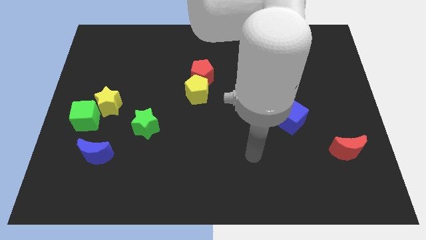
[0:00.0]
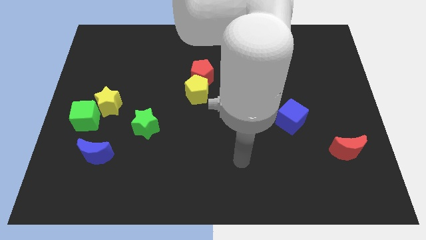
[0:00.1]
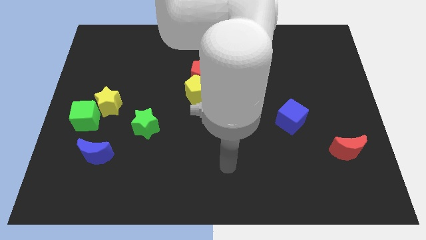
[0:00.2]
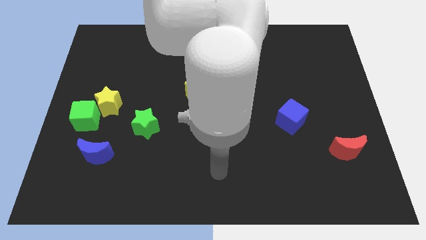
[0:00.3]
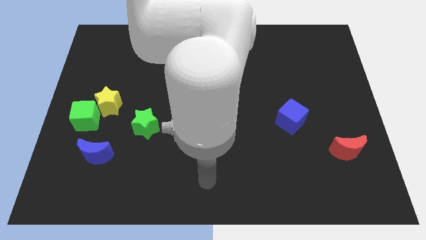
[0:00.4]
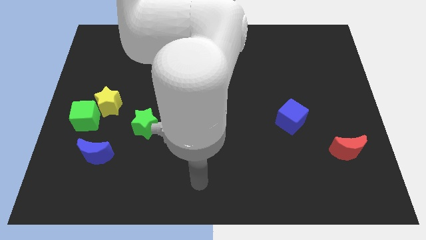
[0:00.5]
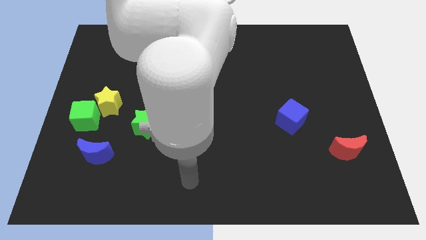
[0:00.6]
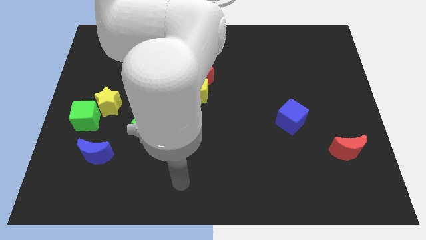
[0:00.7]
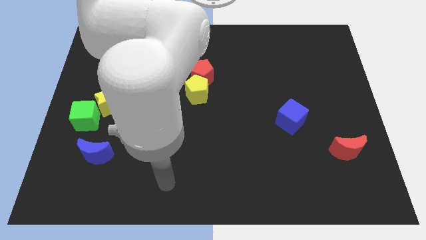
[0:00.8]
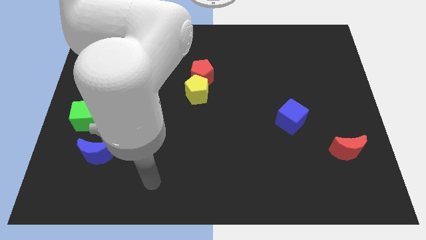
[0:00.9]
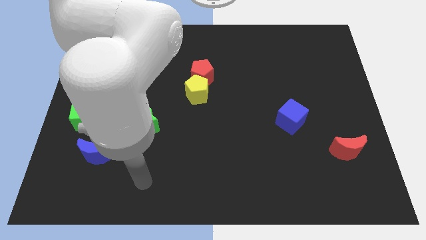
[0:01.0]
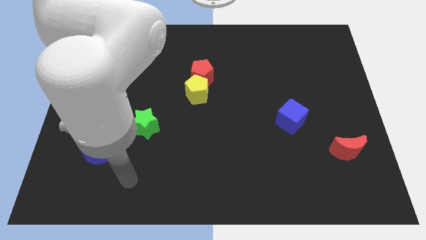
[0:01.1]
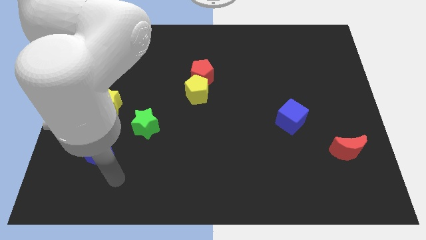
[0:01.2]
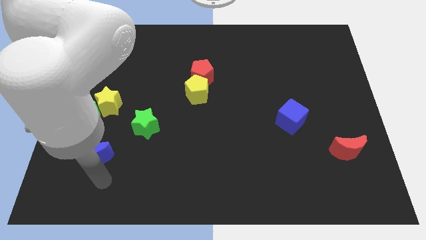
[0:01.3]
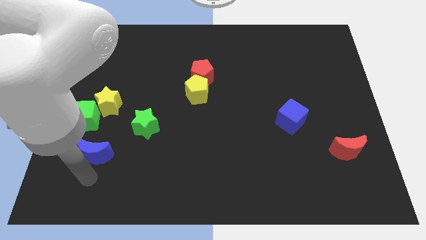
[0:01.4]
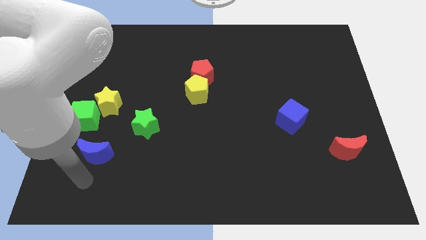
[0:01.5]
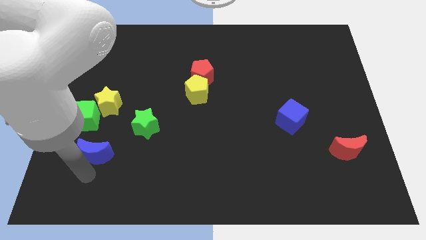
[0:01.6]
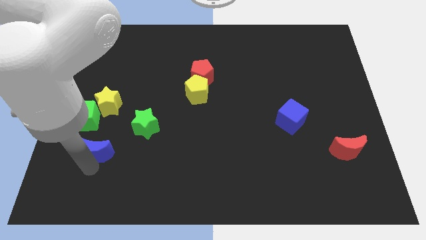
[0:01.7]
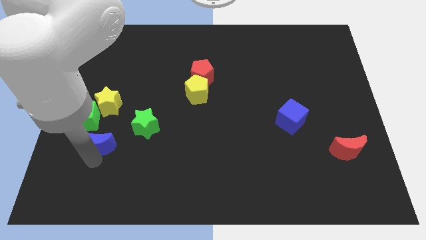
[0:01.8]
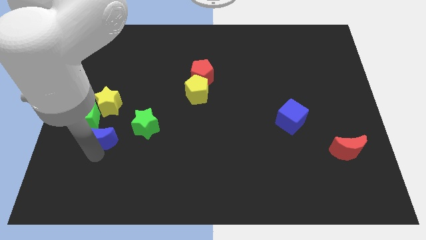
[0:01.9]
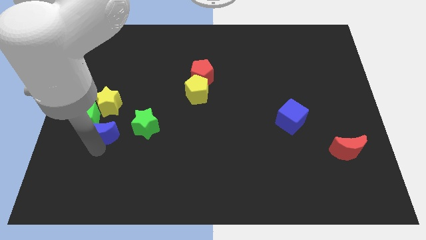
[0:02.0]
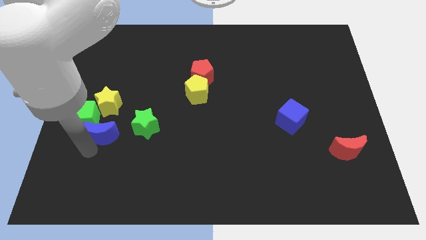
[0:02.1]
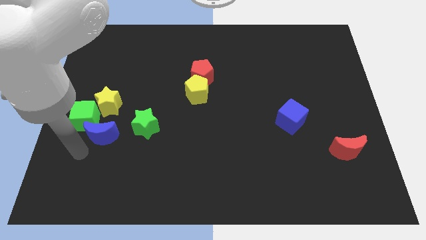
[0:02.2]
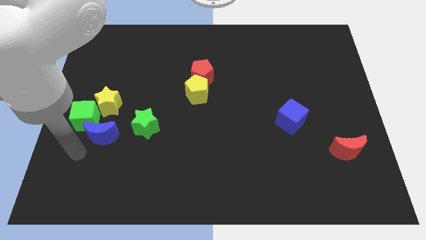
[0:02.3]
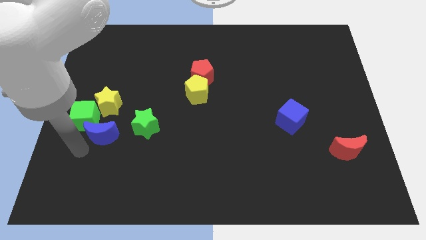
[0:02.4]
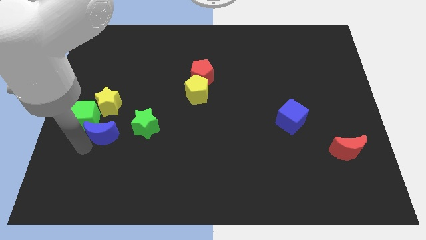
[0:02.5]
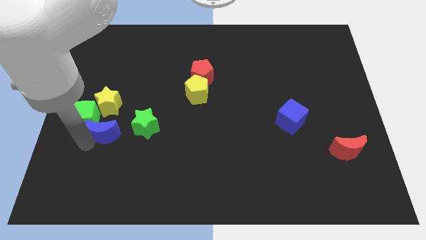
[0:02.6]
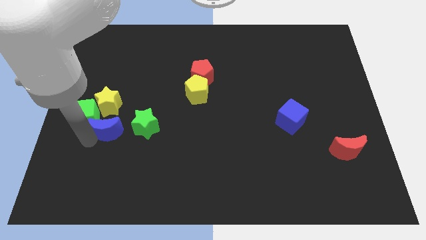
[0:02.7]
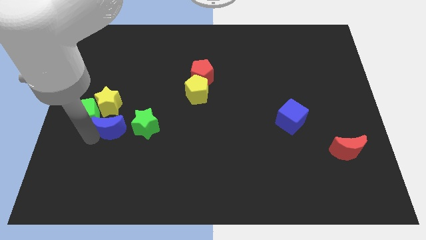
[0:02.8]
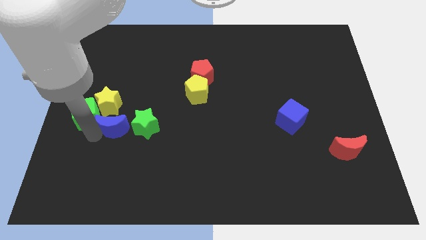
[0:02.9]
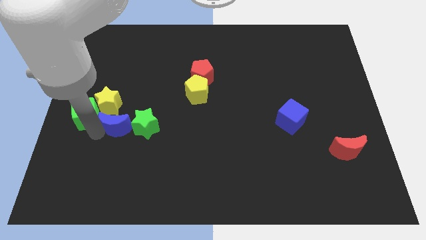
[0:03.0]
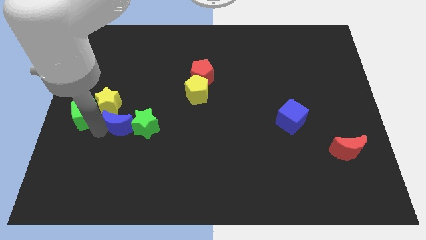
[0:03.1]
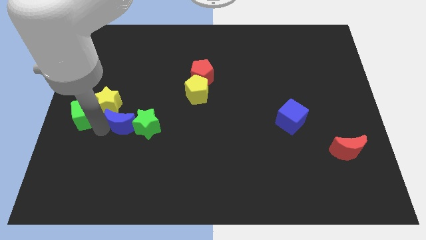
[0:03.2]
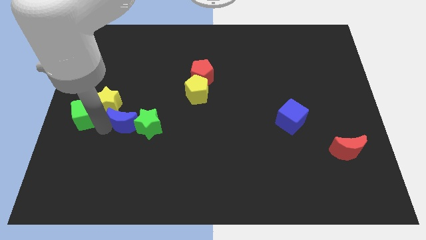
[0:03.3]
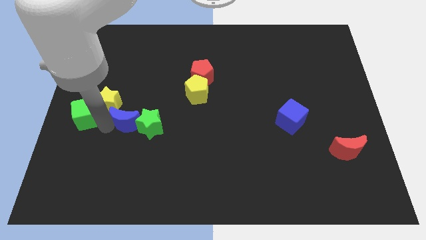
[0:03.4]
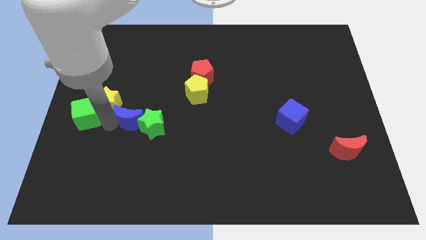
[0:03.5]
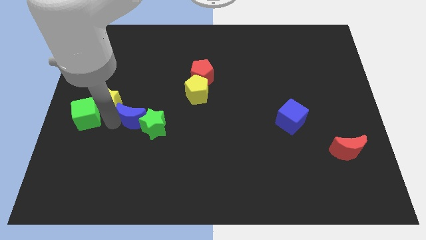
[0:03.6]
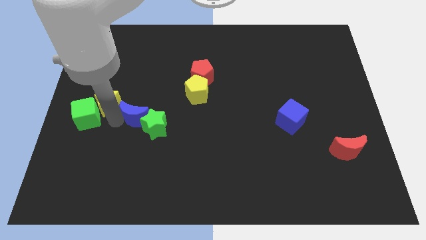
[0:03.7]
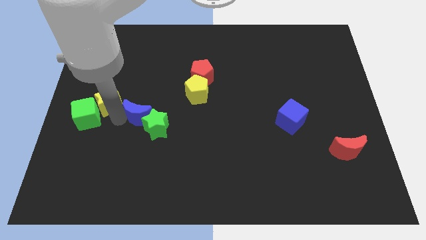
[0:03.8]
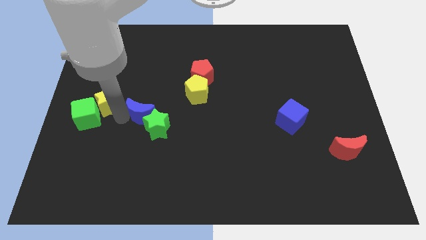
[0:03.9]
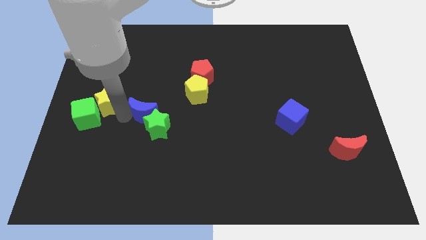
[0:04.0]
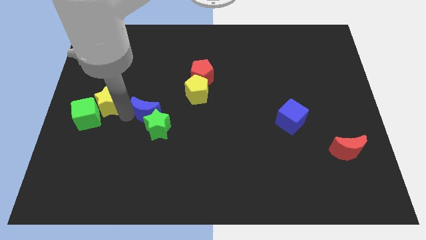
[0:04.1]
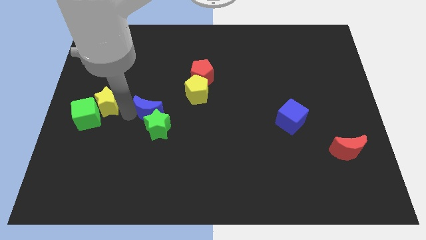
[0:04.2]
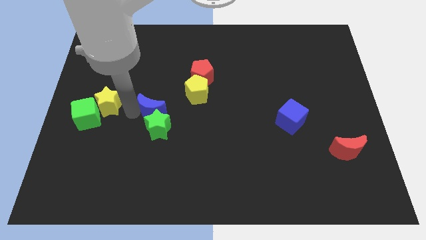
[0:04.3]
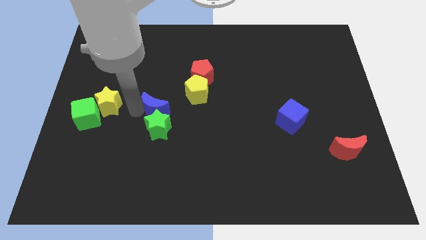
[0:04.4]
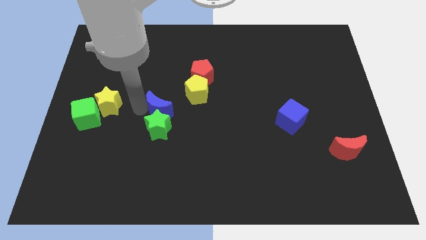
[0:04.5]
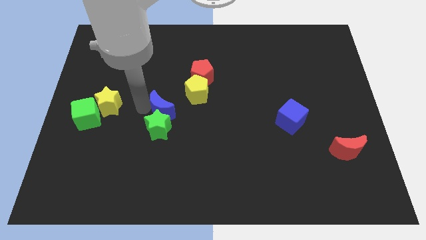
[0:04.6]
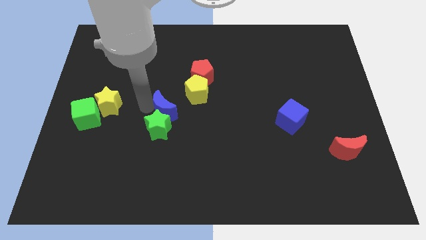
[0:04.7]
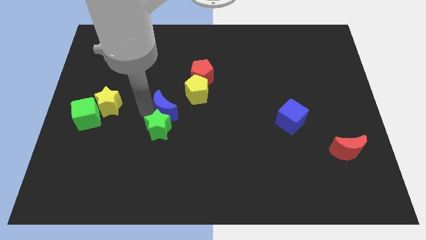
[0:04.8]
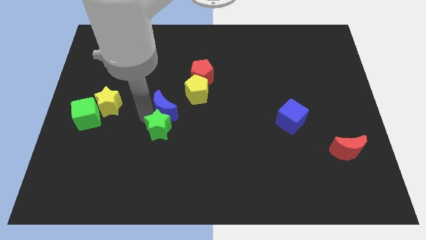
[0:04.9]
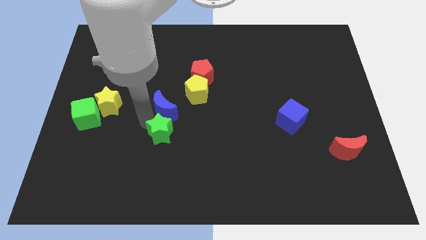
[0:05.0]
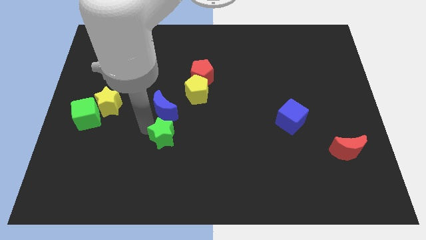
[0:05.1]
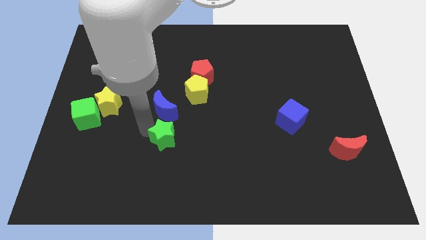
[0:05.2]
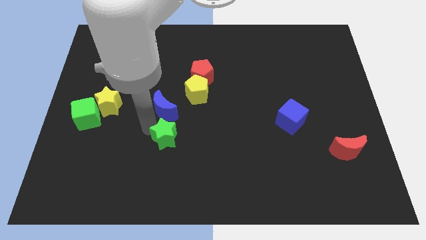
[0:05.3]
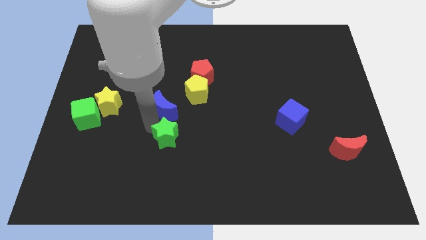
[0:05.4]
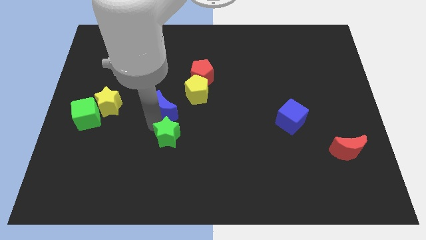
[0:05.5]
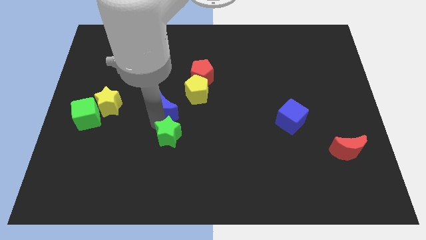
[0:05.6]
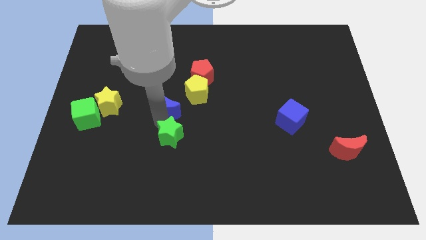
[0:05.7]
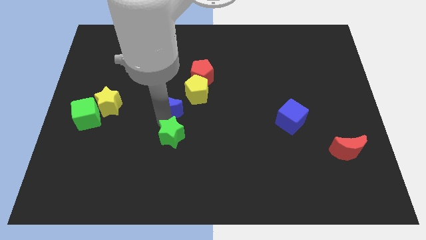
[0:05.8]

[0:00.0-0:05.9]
slide the blue moon to the bottom left side of the red pentagon

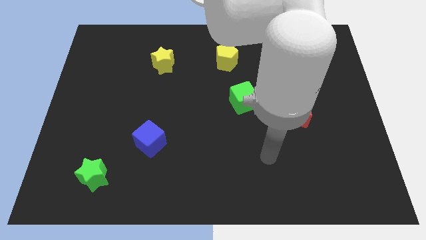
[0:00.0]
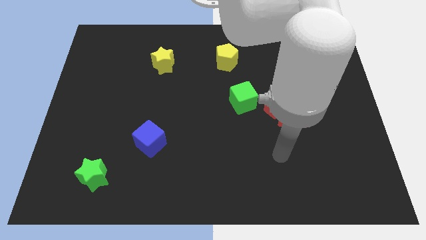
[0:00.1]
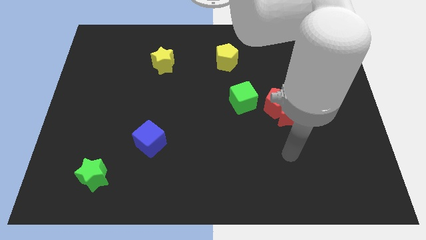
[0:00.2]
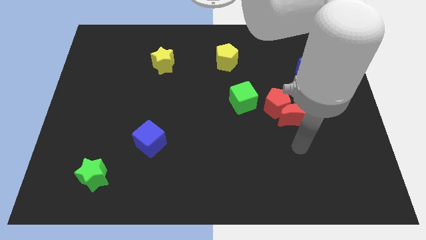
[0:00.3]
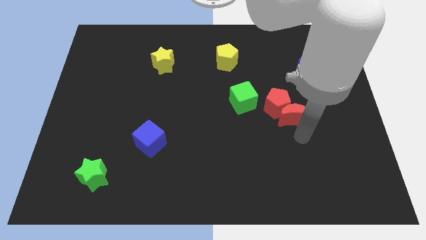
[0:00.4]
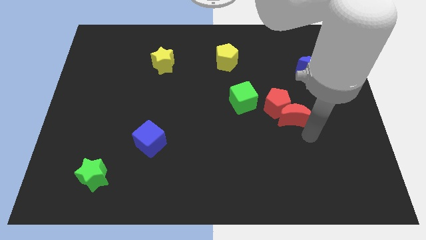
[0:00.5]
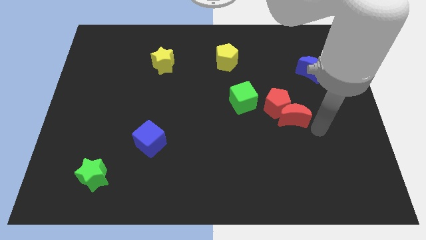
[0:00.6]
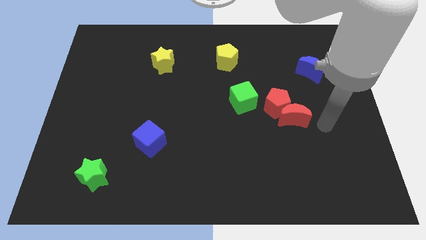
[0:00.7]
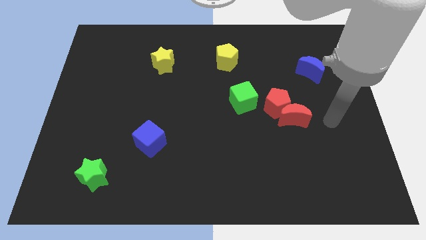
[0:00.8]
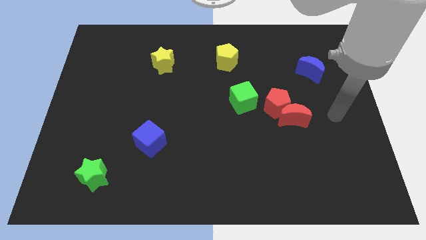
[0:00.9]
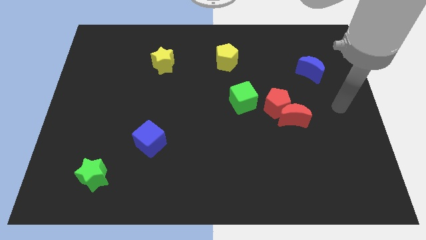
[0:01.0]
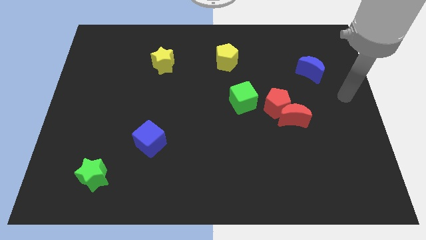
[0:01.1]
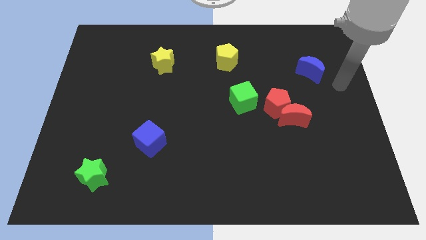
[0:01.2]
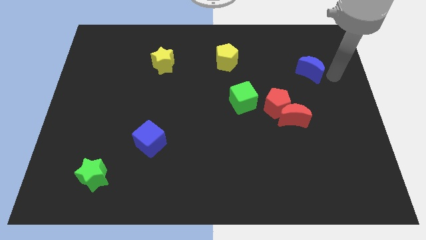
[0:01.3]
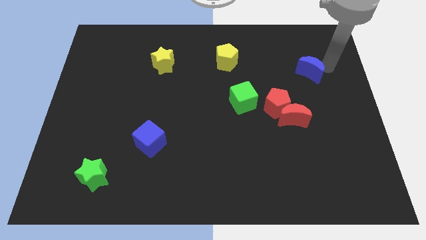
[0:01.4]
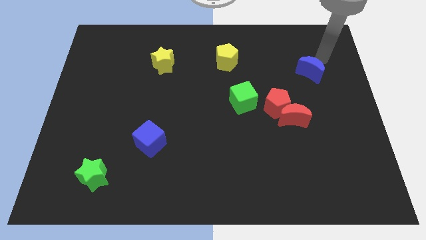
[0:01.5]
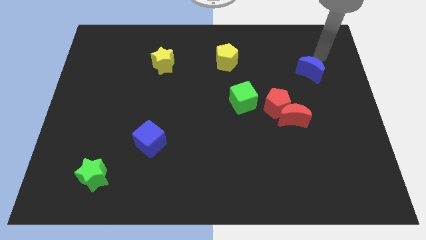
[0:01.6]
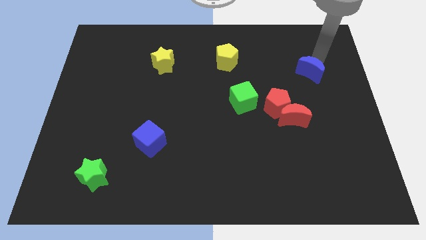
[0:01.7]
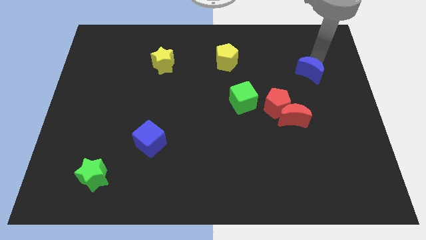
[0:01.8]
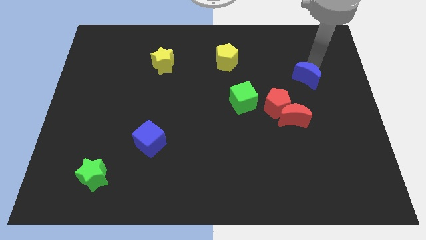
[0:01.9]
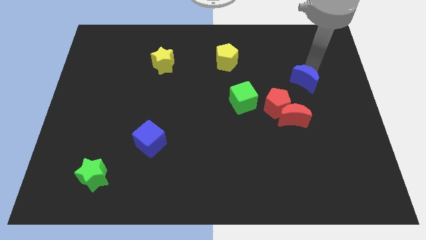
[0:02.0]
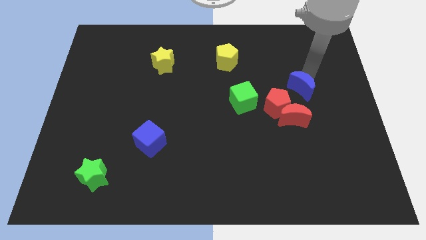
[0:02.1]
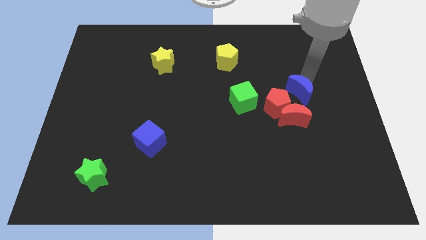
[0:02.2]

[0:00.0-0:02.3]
push the blue moon to the right side of the green cube
